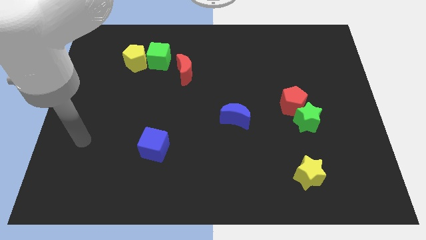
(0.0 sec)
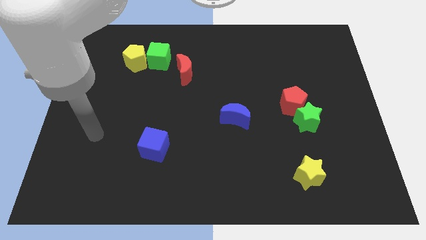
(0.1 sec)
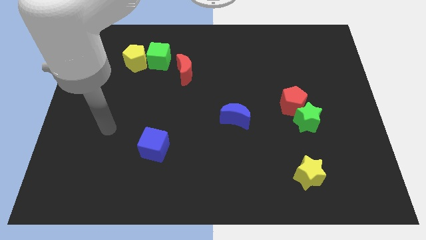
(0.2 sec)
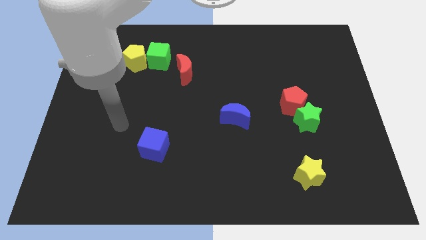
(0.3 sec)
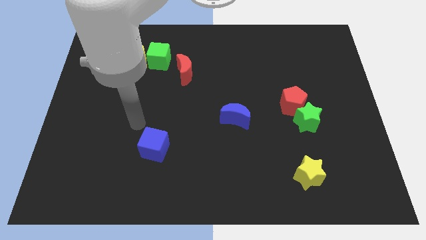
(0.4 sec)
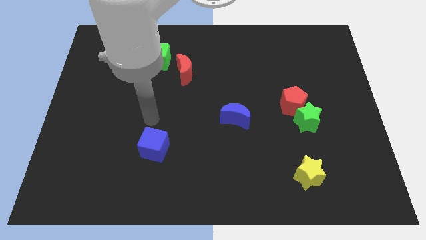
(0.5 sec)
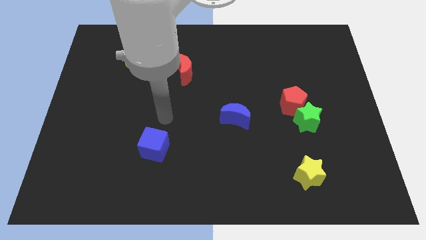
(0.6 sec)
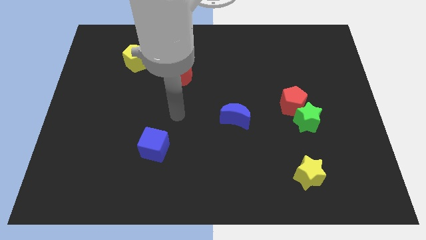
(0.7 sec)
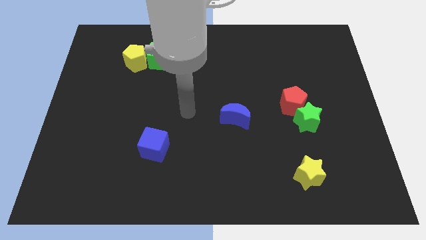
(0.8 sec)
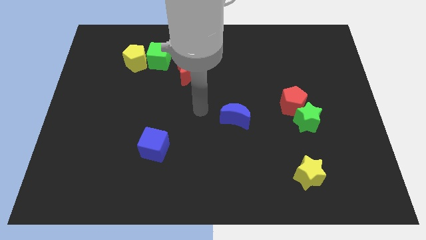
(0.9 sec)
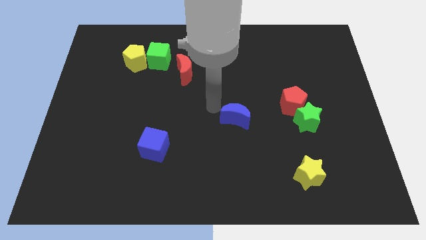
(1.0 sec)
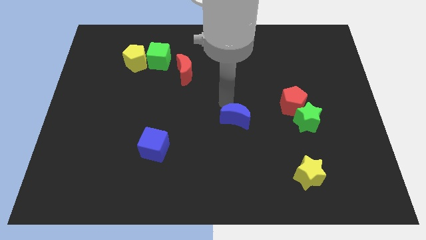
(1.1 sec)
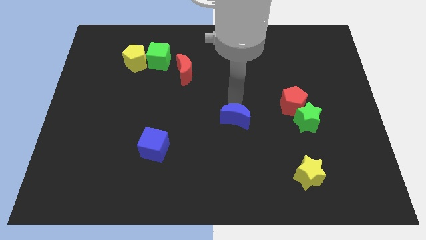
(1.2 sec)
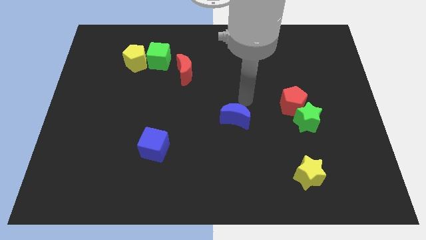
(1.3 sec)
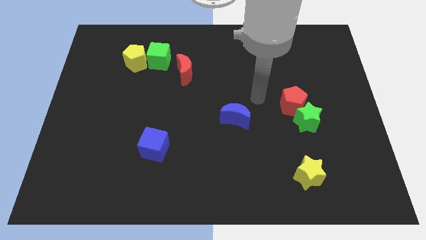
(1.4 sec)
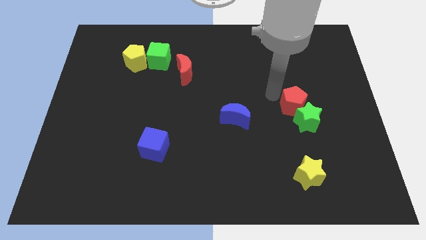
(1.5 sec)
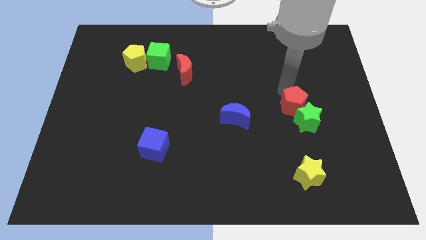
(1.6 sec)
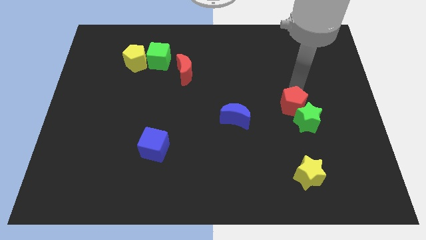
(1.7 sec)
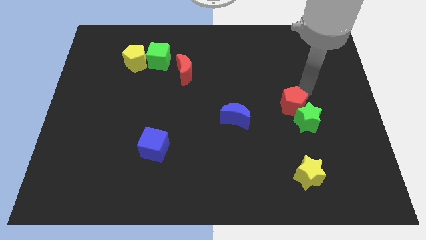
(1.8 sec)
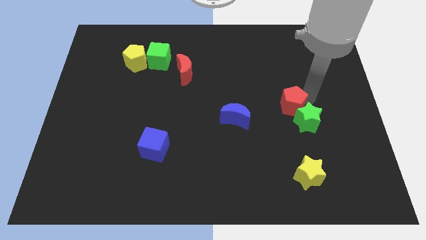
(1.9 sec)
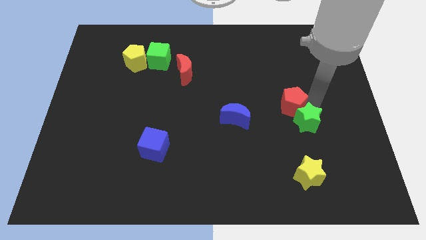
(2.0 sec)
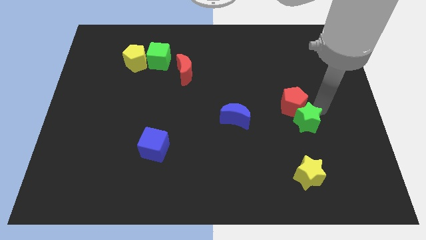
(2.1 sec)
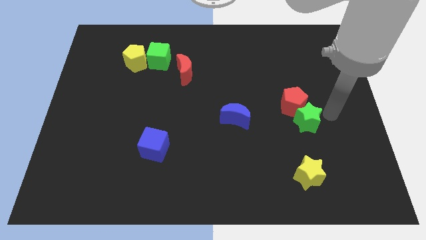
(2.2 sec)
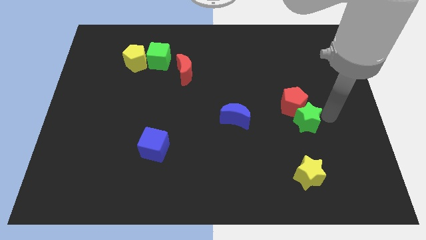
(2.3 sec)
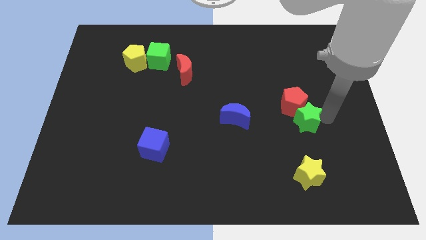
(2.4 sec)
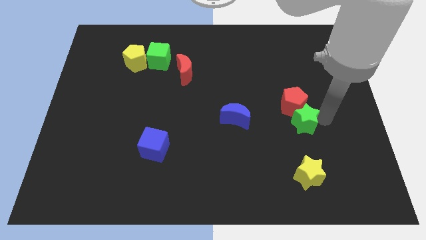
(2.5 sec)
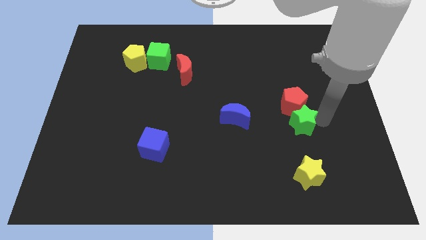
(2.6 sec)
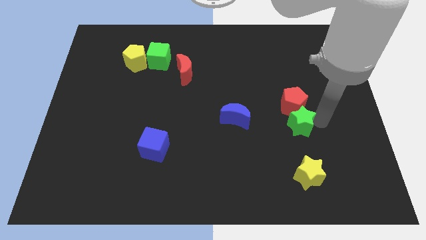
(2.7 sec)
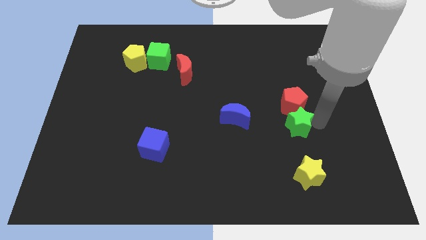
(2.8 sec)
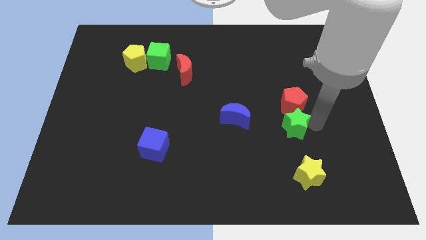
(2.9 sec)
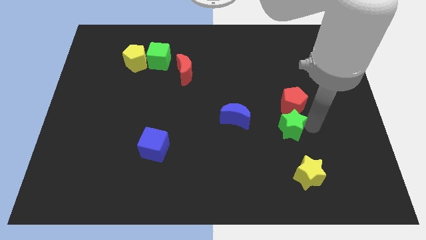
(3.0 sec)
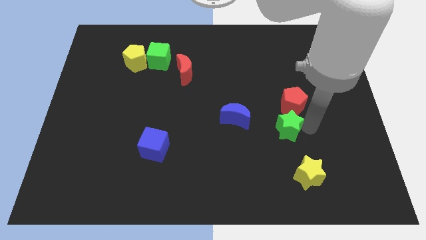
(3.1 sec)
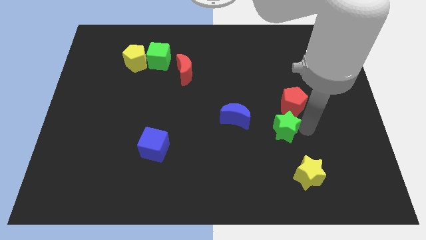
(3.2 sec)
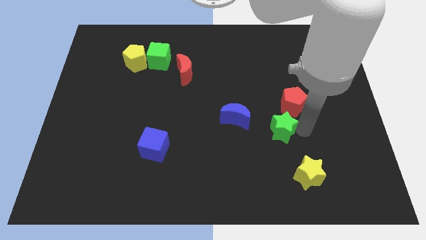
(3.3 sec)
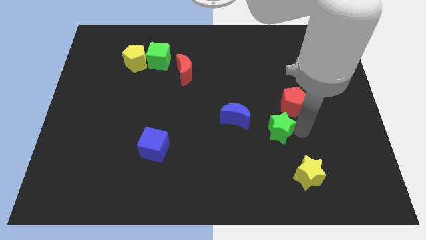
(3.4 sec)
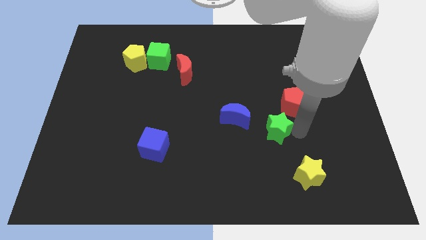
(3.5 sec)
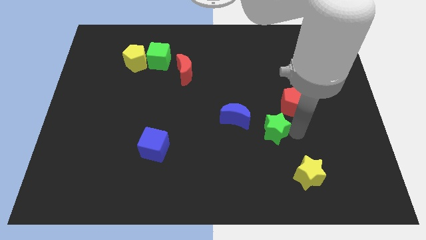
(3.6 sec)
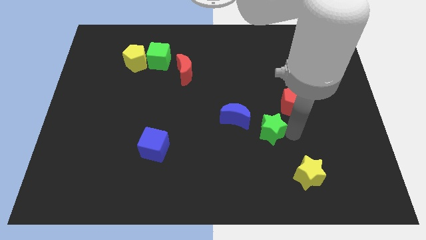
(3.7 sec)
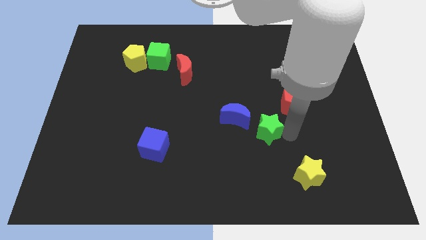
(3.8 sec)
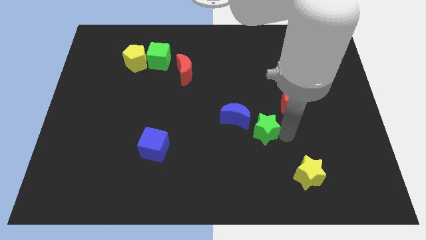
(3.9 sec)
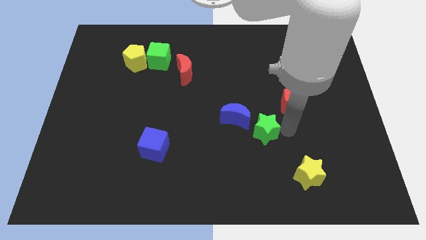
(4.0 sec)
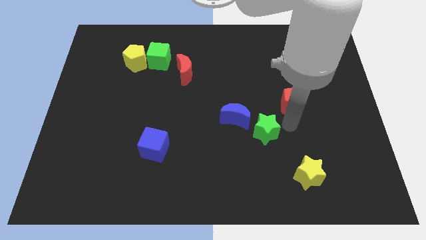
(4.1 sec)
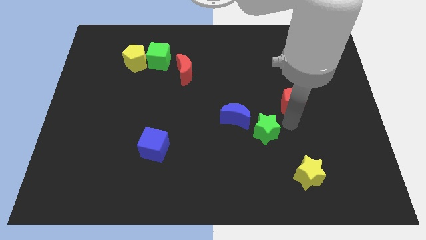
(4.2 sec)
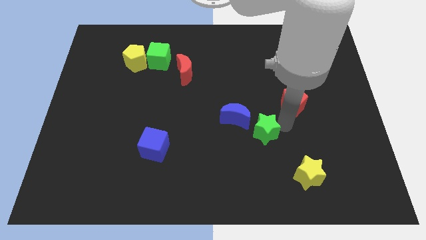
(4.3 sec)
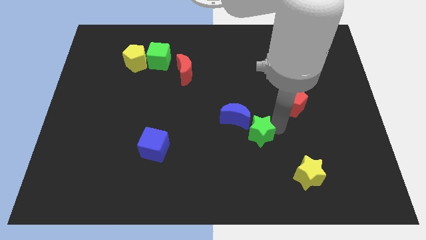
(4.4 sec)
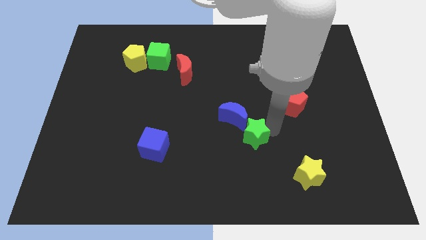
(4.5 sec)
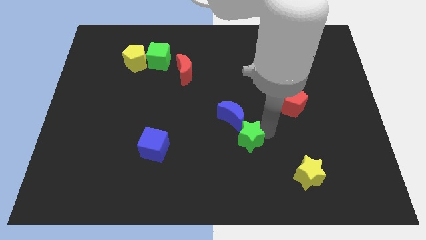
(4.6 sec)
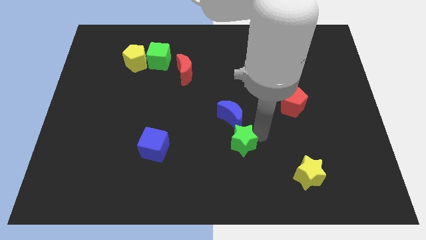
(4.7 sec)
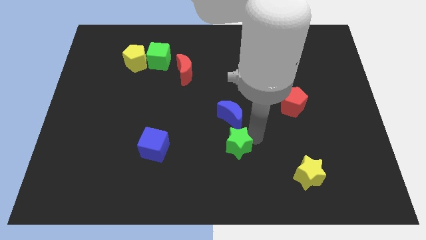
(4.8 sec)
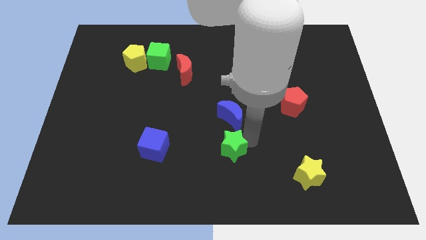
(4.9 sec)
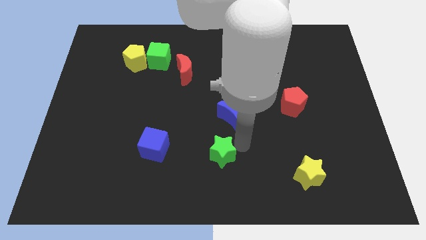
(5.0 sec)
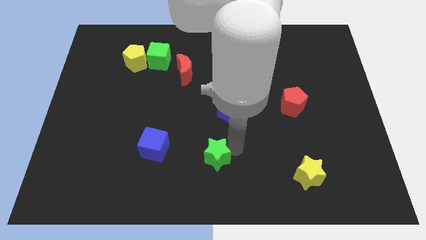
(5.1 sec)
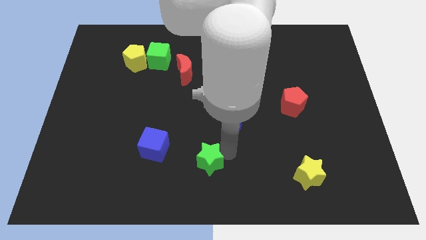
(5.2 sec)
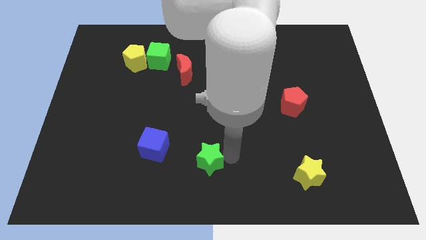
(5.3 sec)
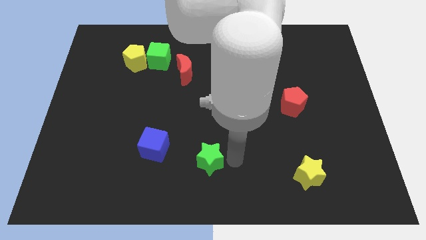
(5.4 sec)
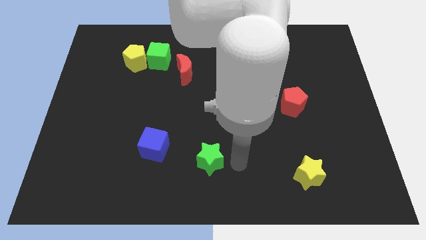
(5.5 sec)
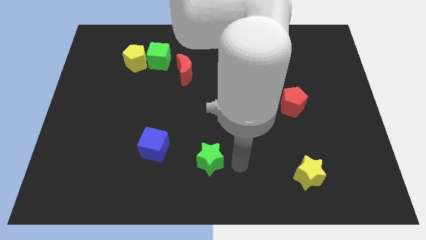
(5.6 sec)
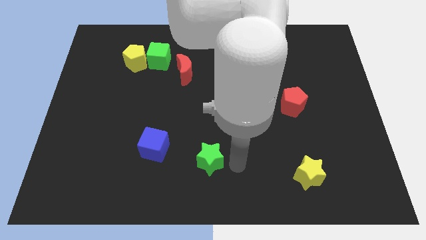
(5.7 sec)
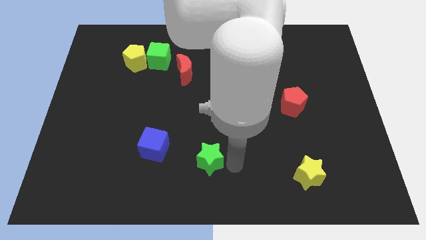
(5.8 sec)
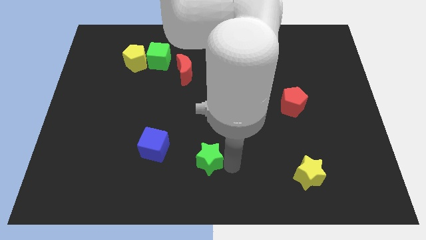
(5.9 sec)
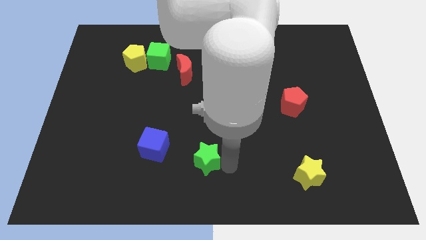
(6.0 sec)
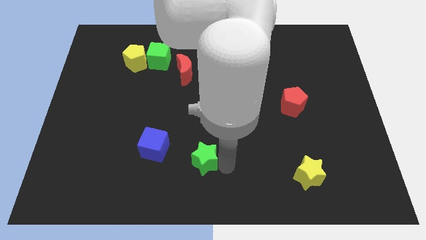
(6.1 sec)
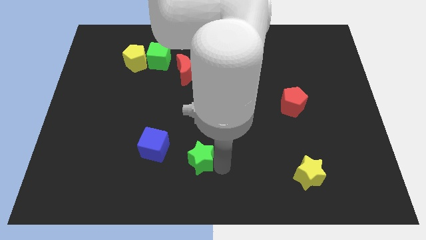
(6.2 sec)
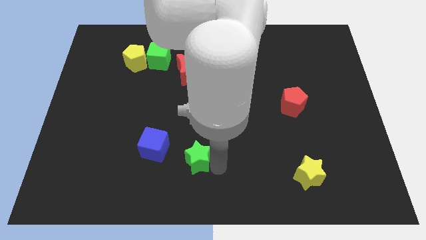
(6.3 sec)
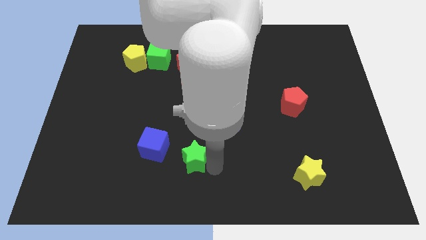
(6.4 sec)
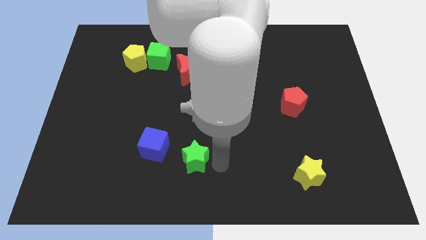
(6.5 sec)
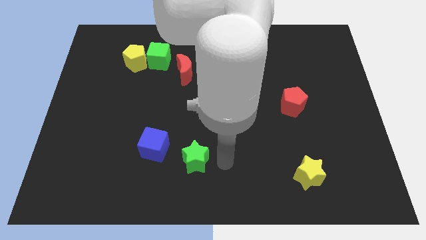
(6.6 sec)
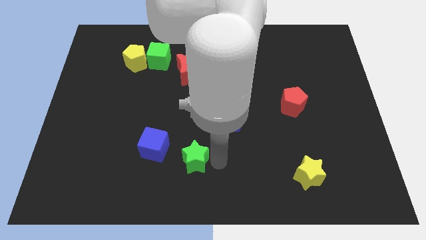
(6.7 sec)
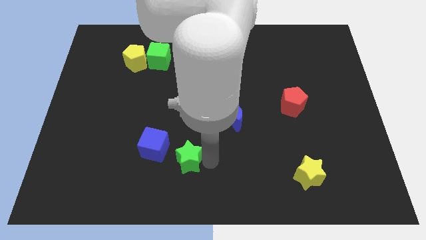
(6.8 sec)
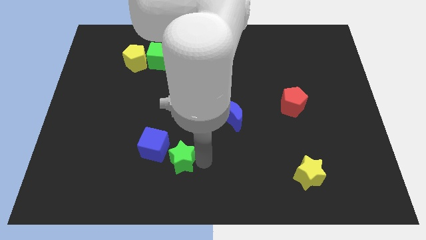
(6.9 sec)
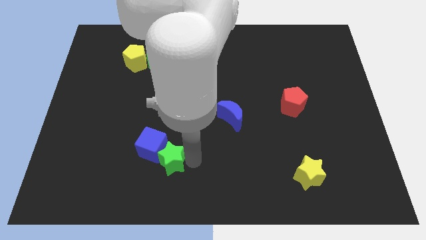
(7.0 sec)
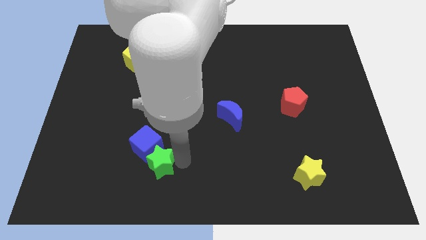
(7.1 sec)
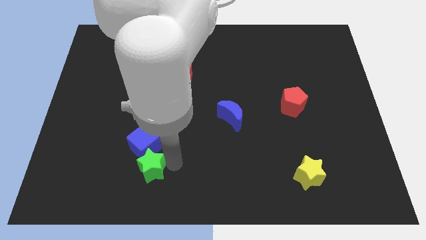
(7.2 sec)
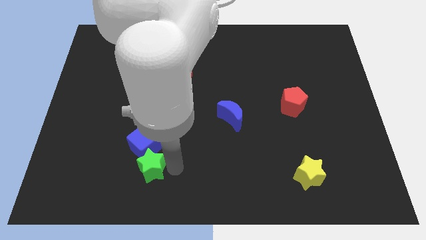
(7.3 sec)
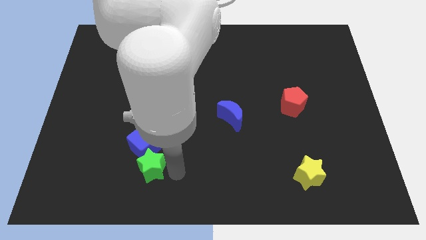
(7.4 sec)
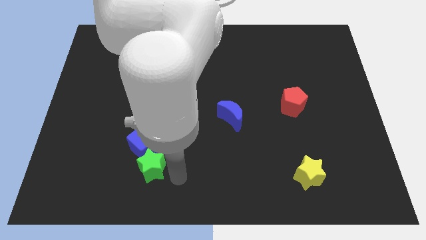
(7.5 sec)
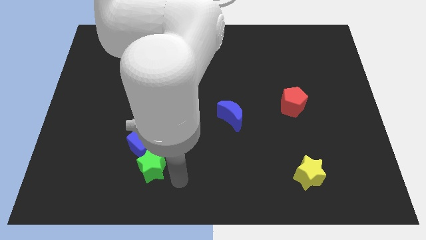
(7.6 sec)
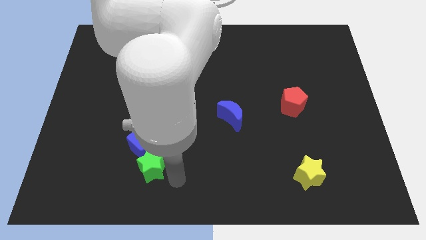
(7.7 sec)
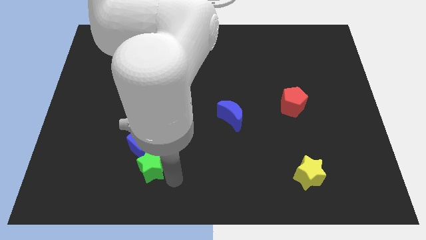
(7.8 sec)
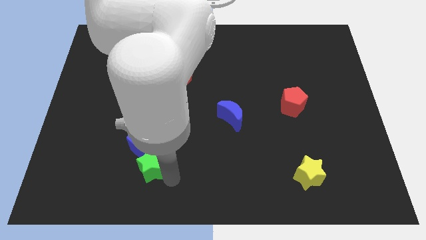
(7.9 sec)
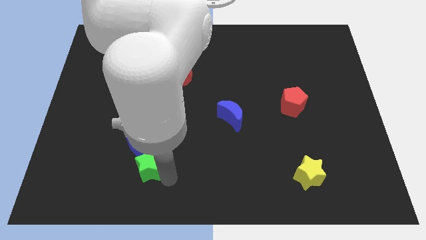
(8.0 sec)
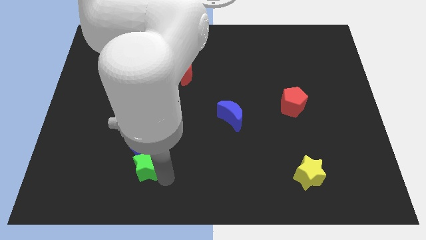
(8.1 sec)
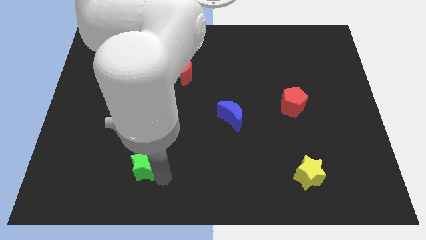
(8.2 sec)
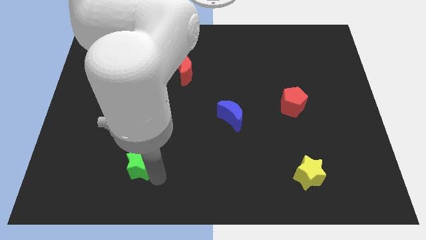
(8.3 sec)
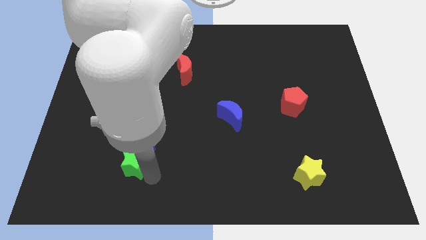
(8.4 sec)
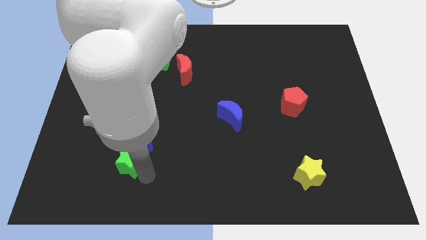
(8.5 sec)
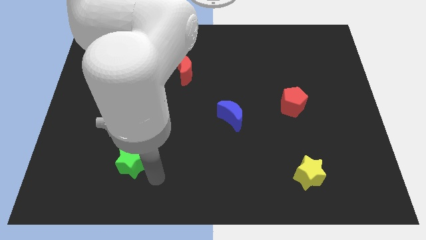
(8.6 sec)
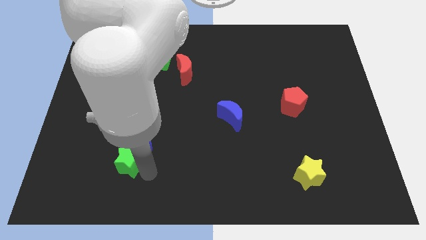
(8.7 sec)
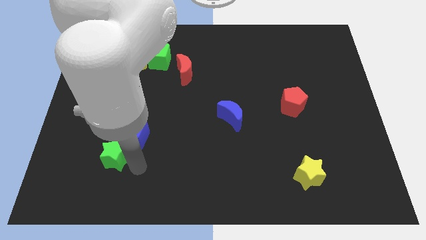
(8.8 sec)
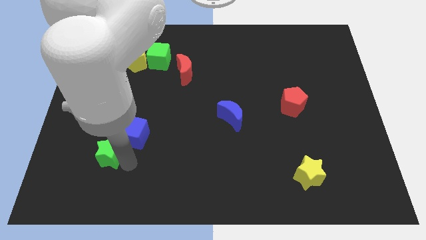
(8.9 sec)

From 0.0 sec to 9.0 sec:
move the green star just left of the blue cube
